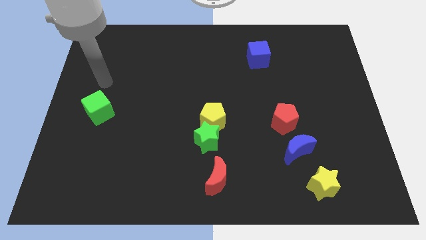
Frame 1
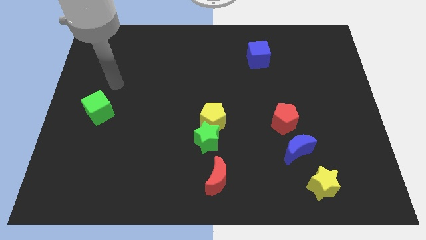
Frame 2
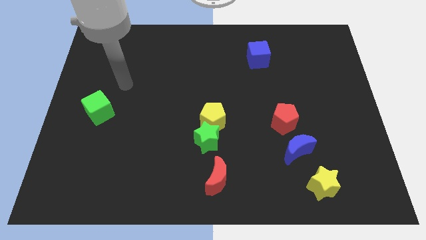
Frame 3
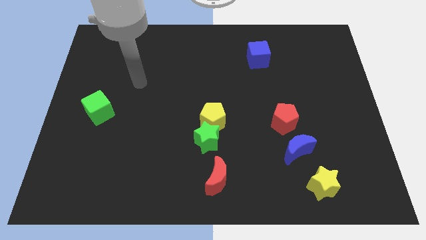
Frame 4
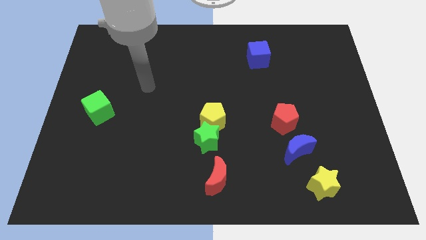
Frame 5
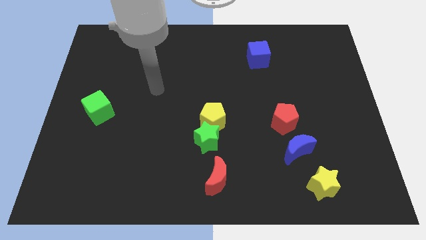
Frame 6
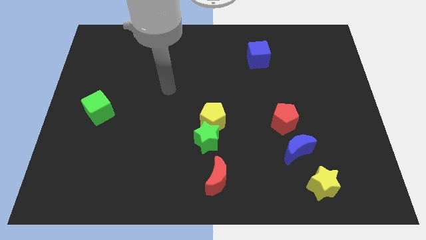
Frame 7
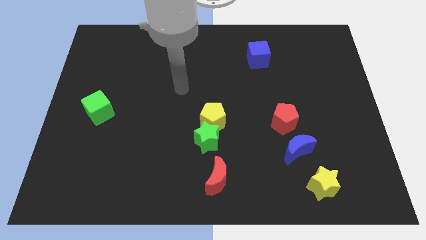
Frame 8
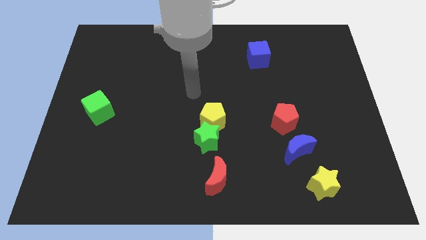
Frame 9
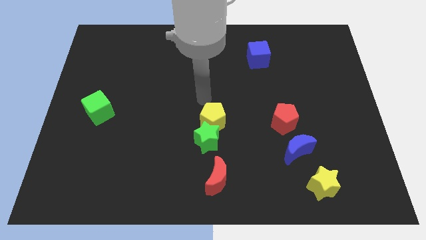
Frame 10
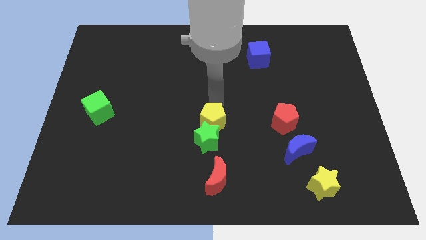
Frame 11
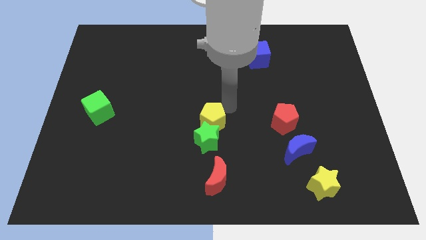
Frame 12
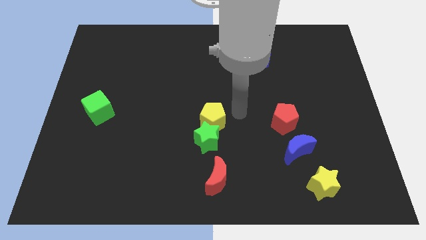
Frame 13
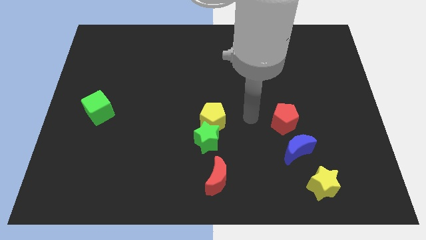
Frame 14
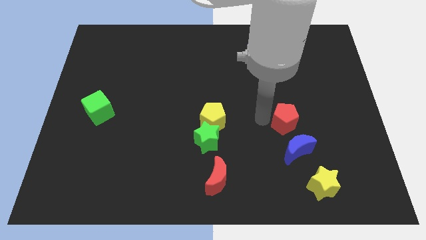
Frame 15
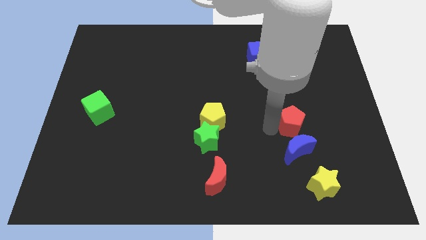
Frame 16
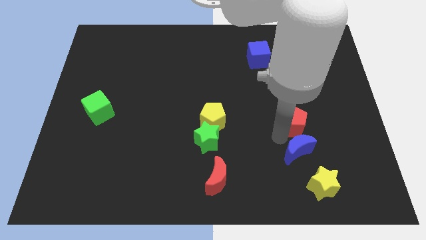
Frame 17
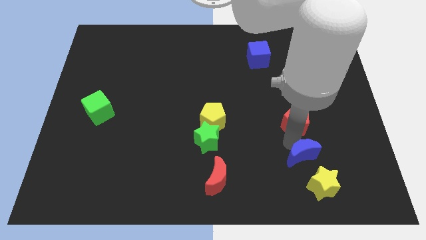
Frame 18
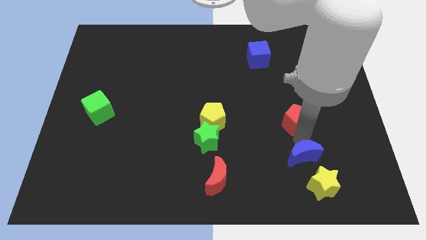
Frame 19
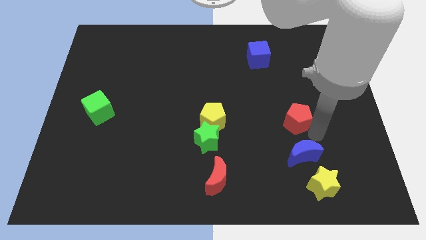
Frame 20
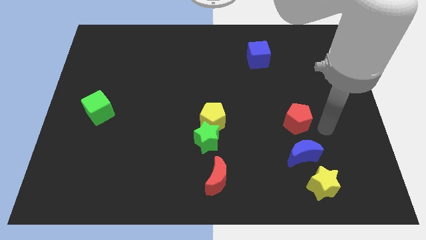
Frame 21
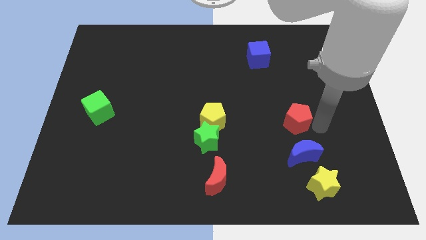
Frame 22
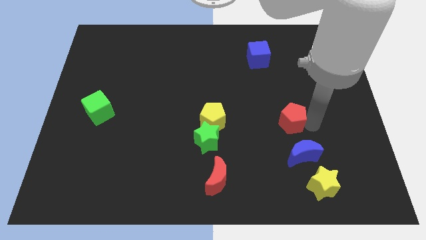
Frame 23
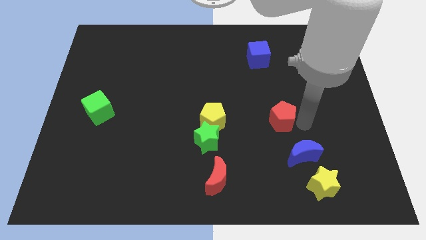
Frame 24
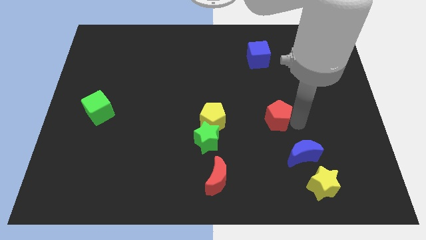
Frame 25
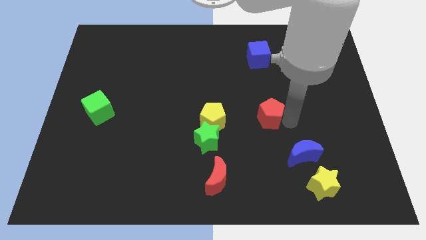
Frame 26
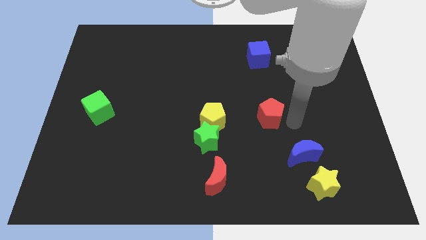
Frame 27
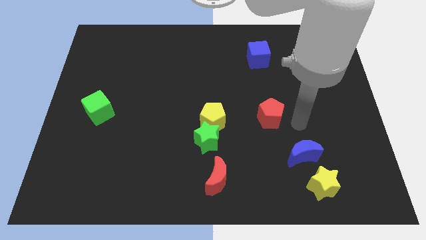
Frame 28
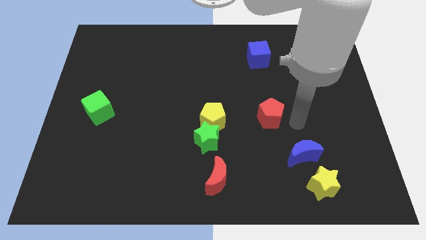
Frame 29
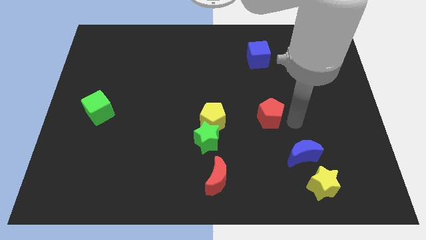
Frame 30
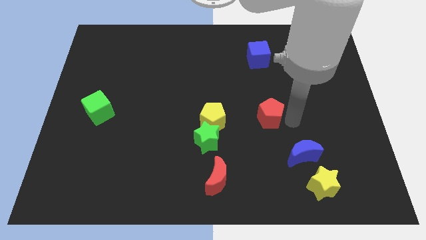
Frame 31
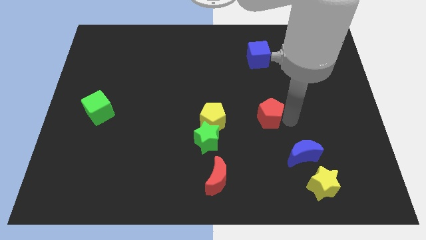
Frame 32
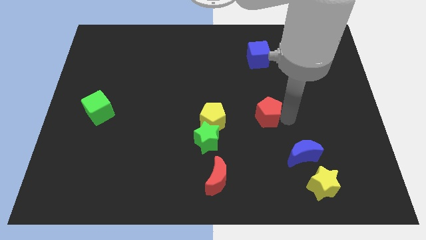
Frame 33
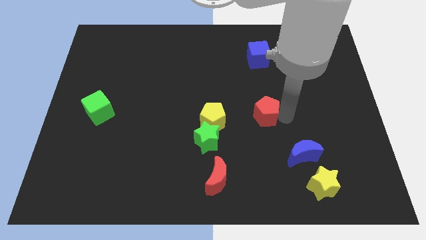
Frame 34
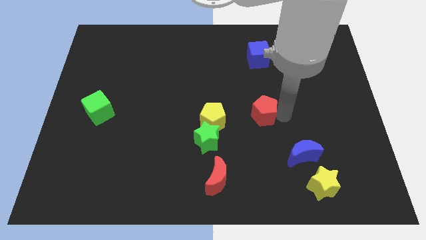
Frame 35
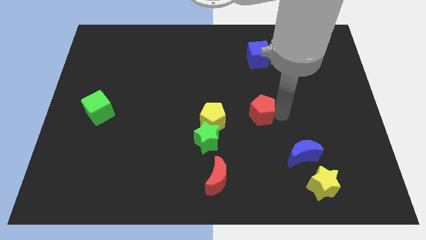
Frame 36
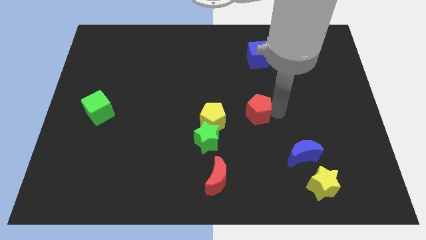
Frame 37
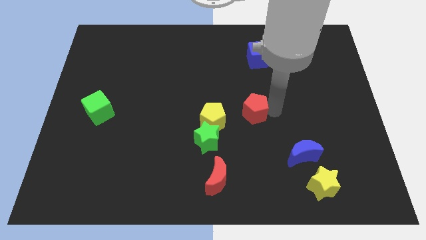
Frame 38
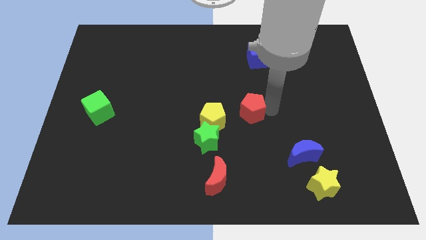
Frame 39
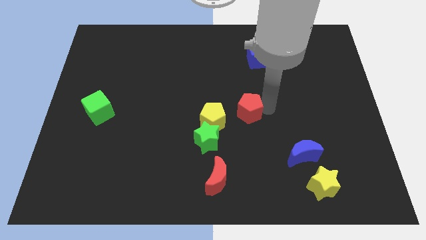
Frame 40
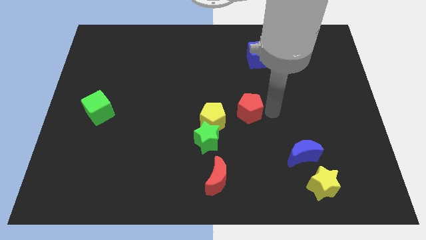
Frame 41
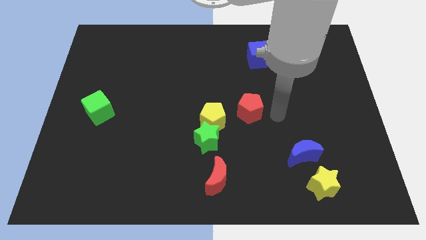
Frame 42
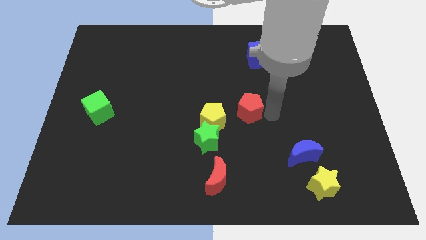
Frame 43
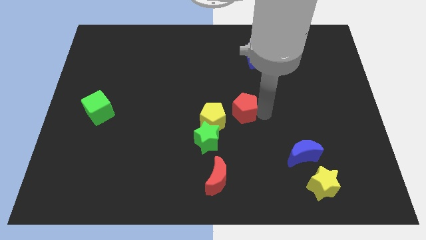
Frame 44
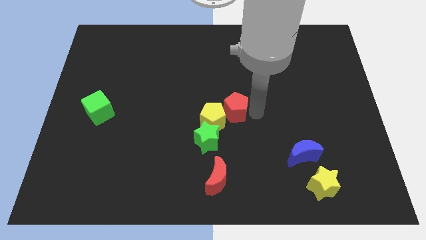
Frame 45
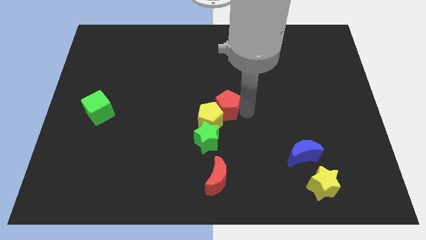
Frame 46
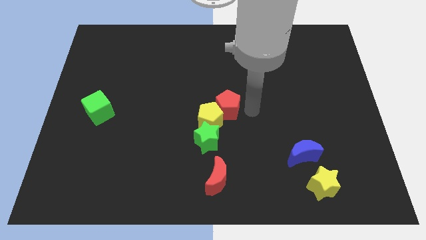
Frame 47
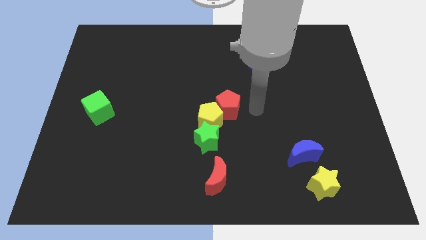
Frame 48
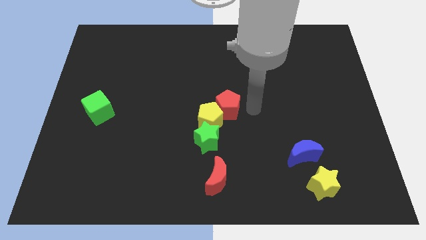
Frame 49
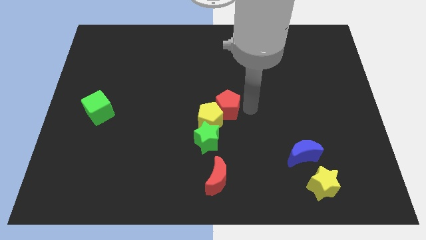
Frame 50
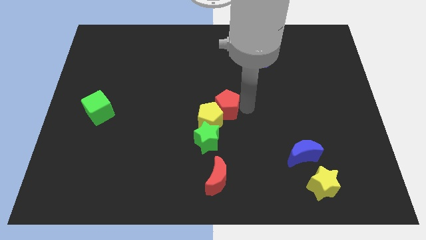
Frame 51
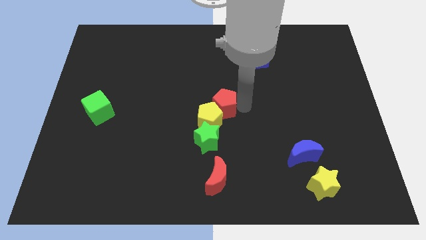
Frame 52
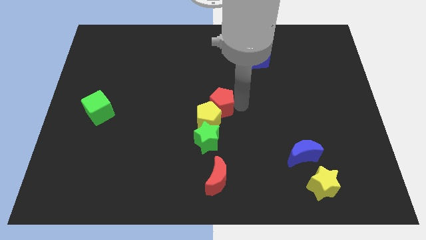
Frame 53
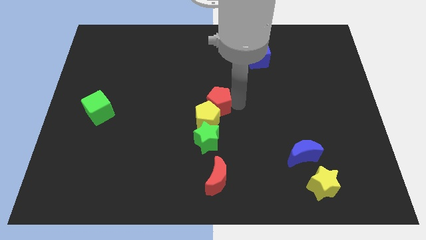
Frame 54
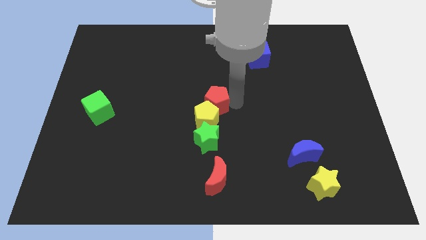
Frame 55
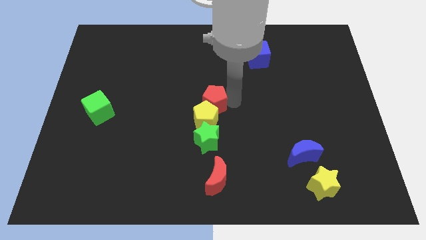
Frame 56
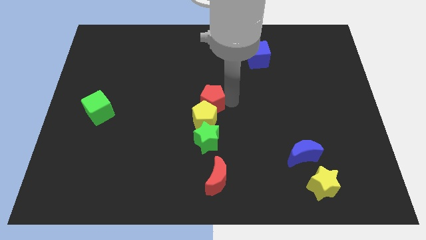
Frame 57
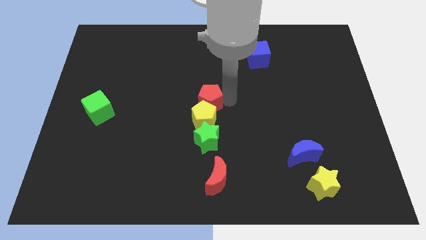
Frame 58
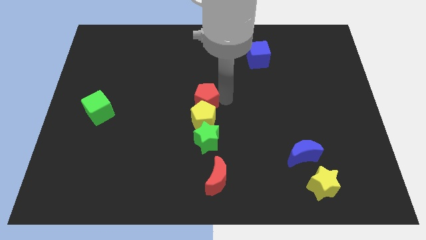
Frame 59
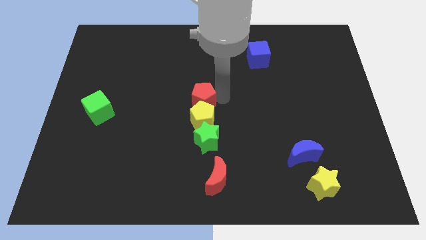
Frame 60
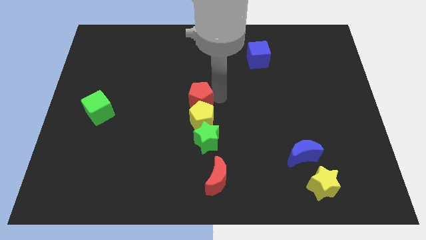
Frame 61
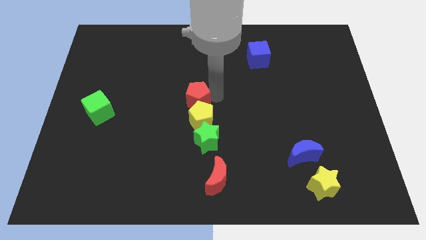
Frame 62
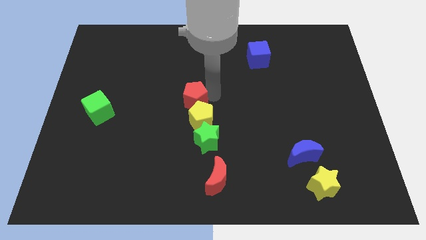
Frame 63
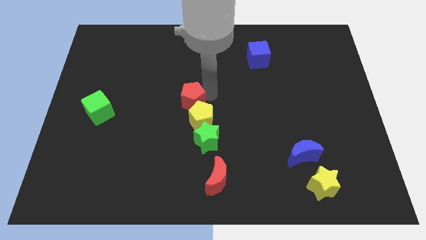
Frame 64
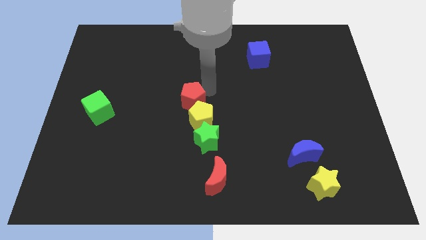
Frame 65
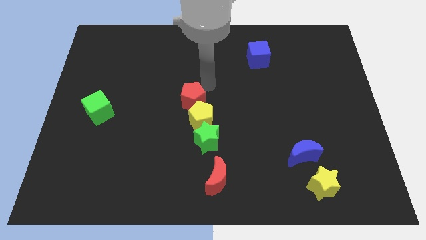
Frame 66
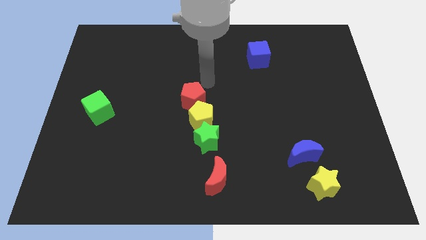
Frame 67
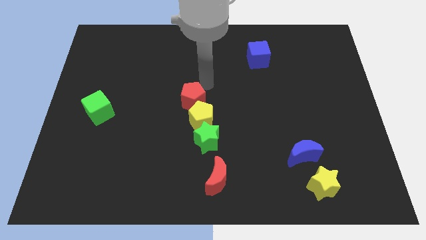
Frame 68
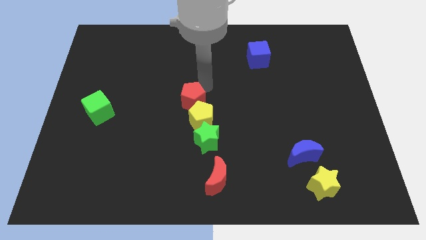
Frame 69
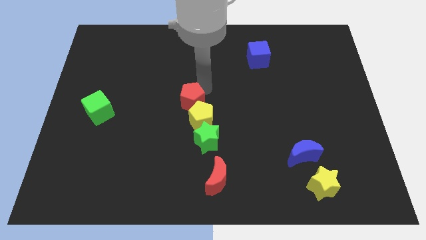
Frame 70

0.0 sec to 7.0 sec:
slide the red pentagon left

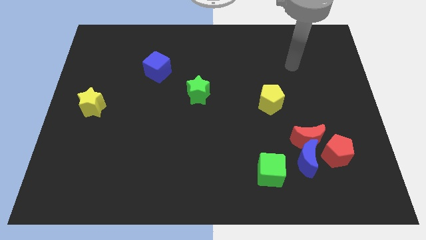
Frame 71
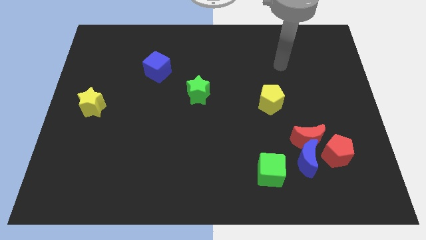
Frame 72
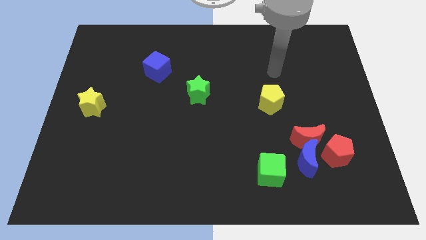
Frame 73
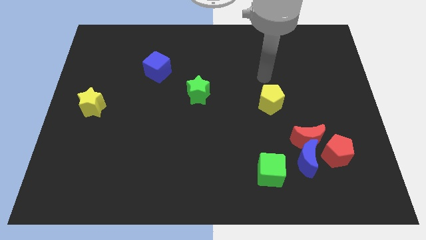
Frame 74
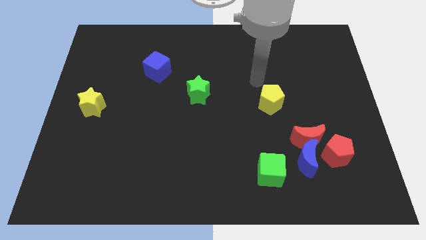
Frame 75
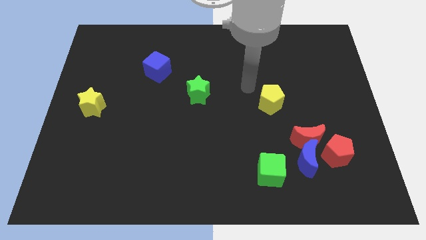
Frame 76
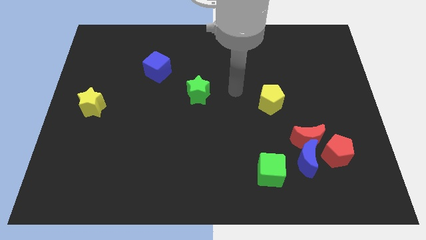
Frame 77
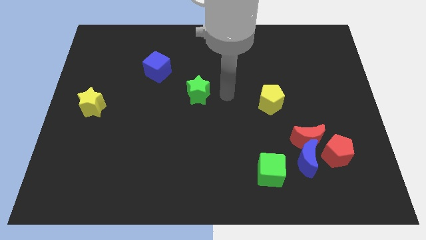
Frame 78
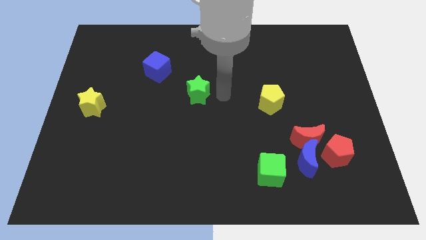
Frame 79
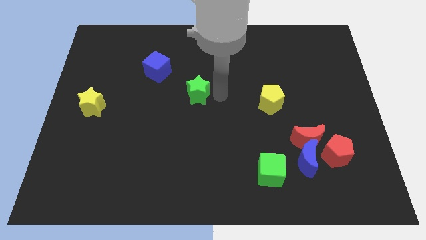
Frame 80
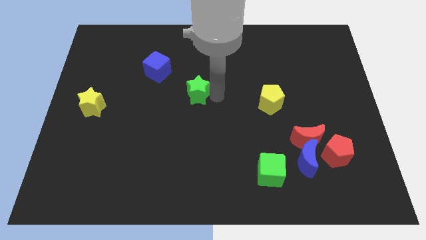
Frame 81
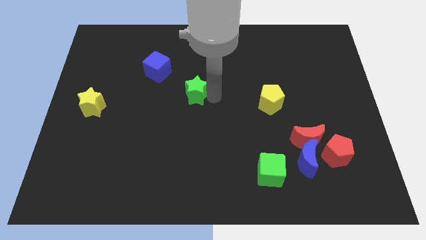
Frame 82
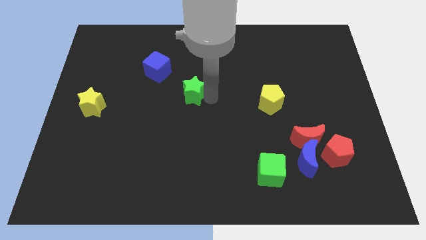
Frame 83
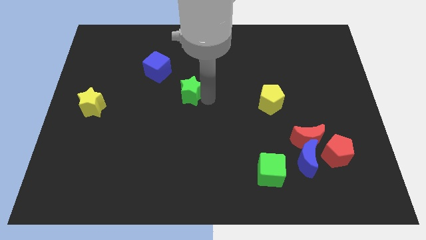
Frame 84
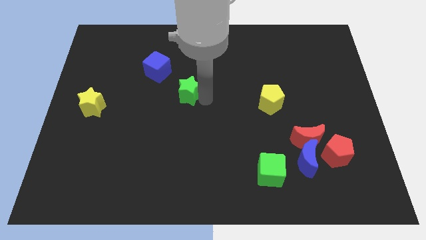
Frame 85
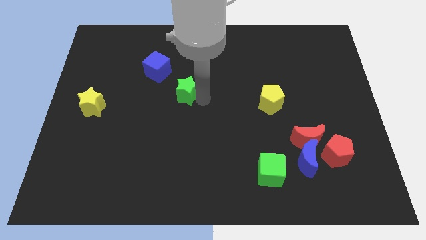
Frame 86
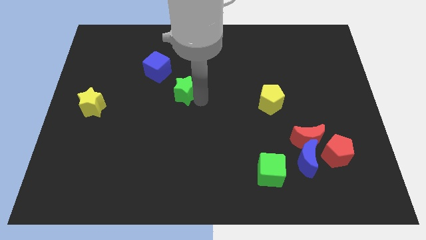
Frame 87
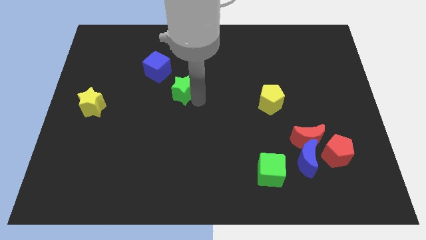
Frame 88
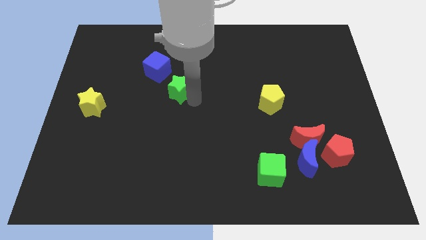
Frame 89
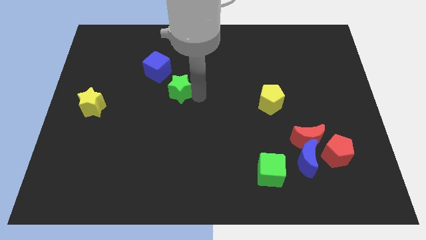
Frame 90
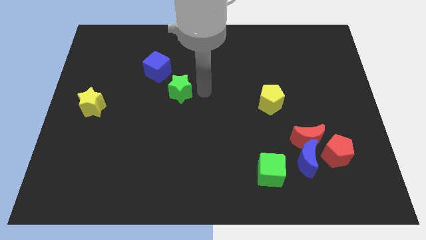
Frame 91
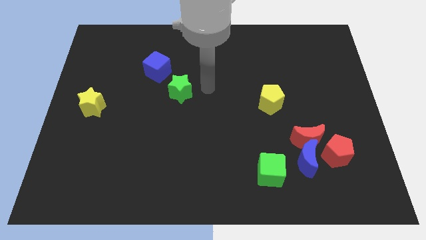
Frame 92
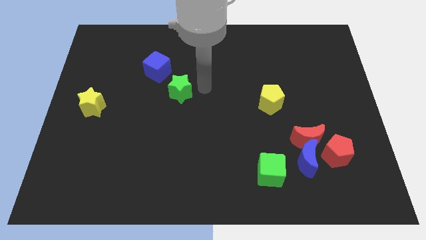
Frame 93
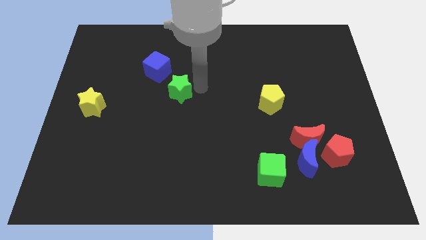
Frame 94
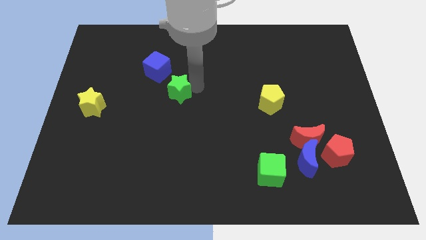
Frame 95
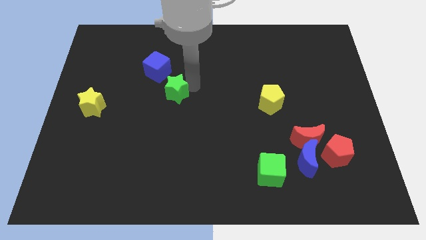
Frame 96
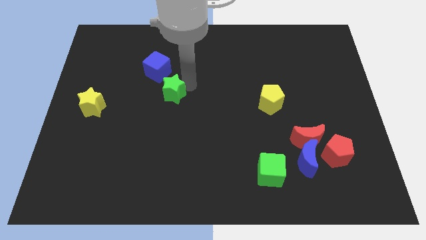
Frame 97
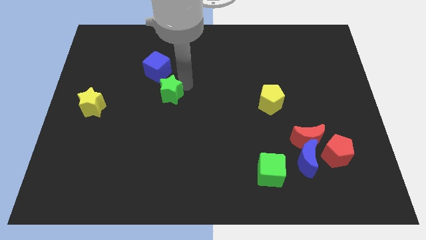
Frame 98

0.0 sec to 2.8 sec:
slightly push the green star to the left
